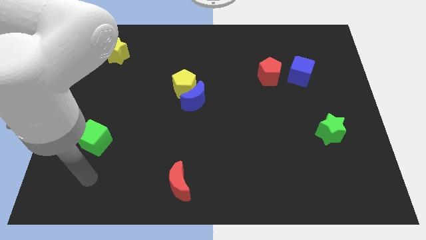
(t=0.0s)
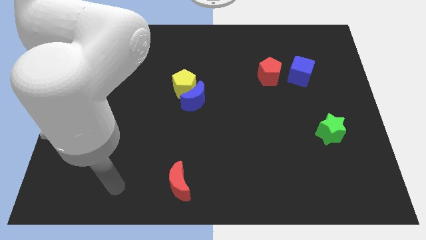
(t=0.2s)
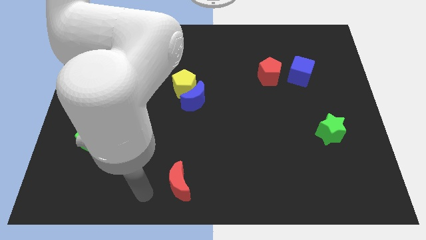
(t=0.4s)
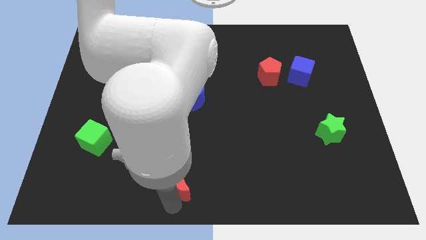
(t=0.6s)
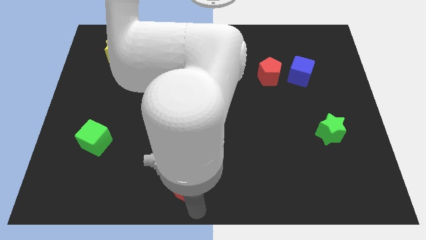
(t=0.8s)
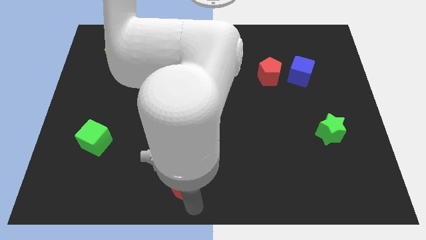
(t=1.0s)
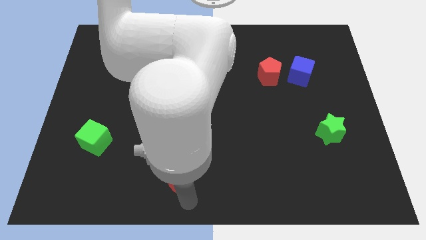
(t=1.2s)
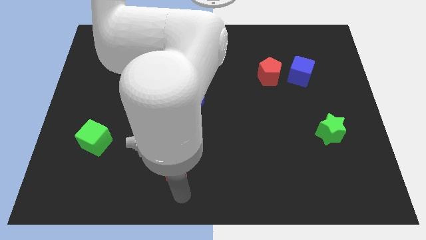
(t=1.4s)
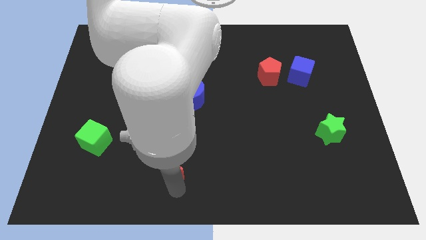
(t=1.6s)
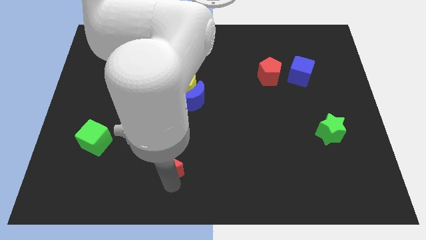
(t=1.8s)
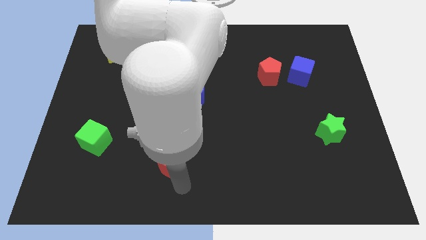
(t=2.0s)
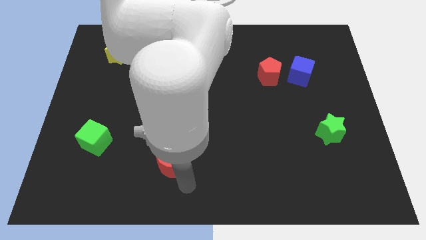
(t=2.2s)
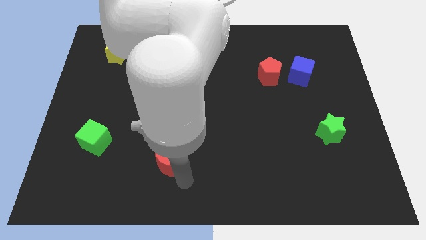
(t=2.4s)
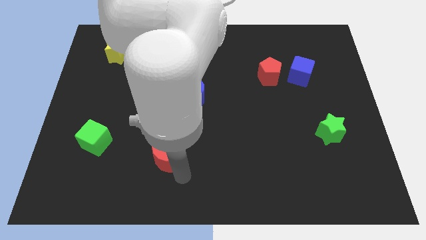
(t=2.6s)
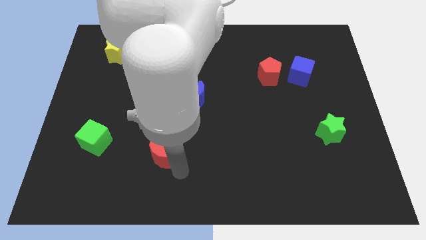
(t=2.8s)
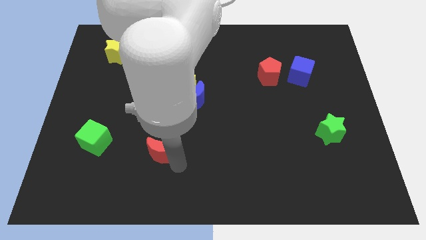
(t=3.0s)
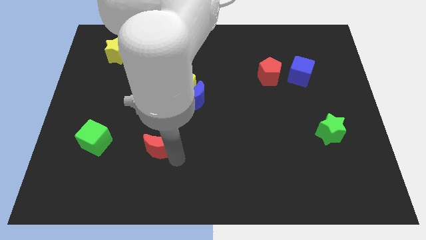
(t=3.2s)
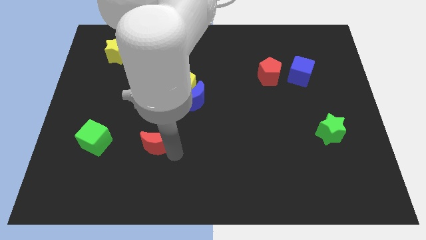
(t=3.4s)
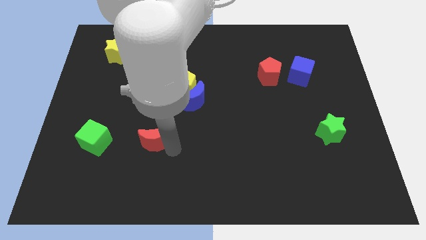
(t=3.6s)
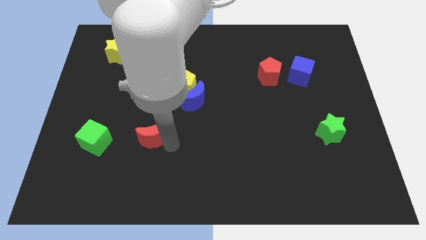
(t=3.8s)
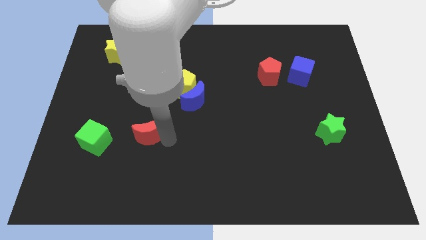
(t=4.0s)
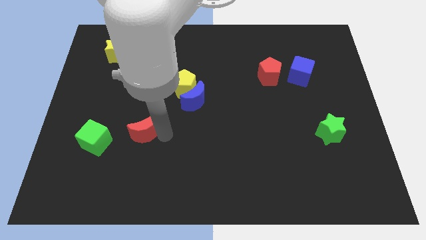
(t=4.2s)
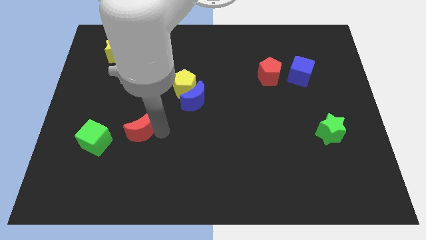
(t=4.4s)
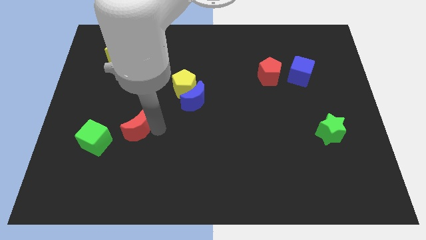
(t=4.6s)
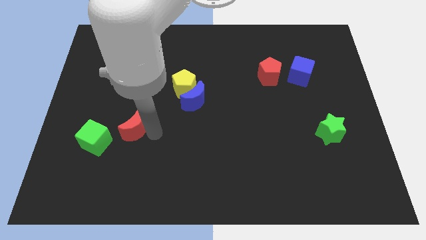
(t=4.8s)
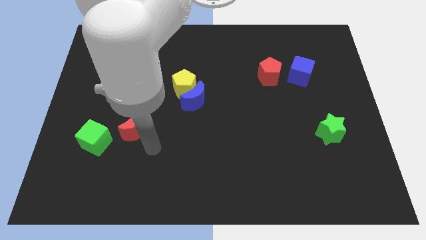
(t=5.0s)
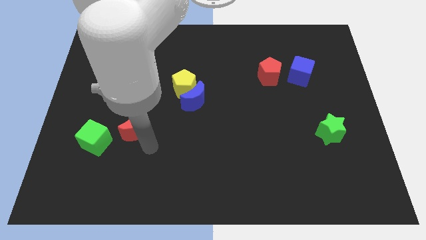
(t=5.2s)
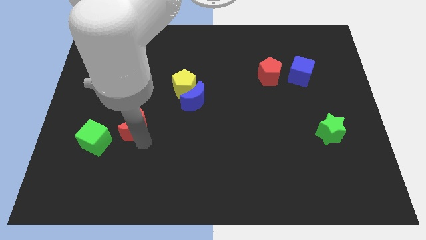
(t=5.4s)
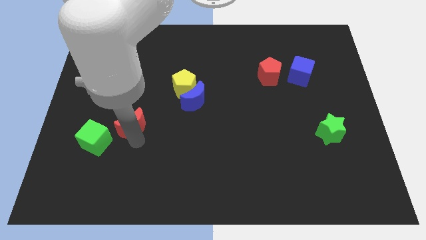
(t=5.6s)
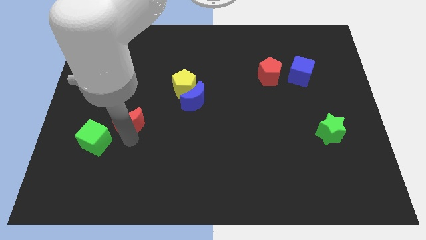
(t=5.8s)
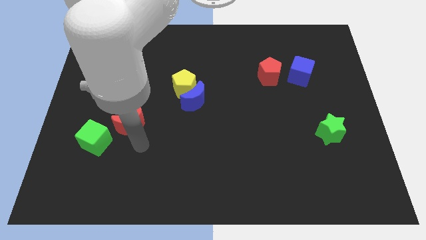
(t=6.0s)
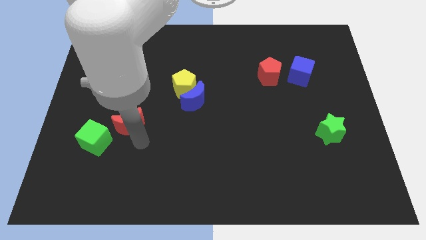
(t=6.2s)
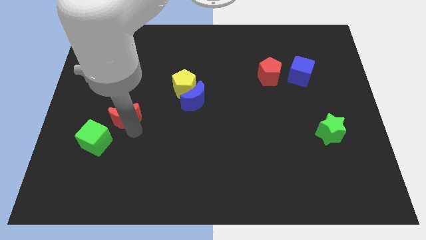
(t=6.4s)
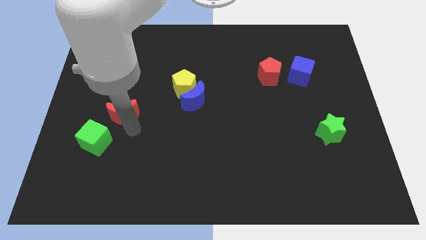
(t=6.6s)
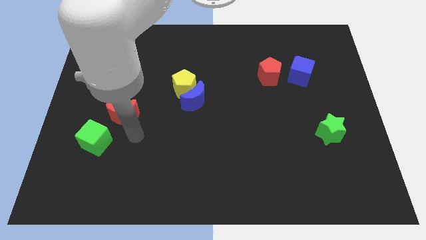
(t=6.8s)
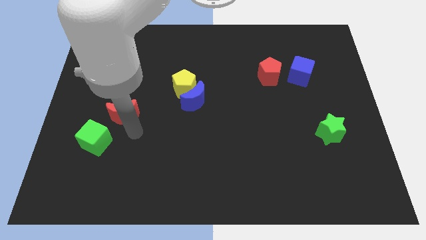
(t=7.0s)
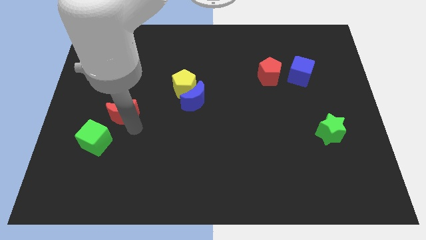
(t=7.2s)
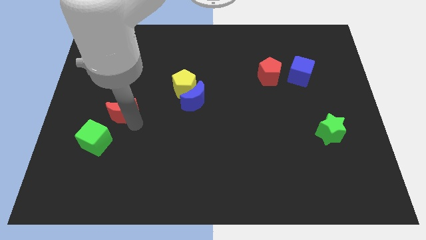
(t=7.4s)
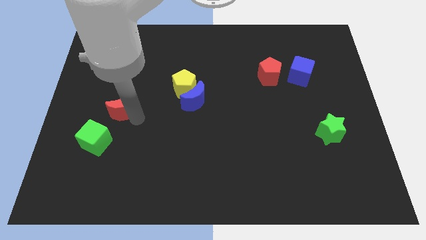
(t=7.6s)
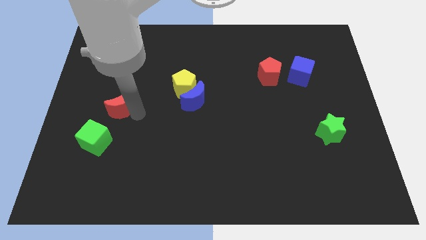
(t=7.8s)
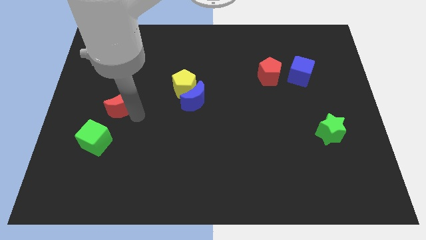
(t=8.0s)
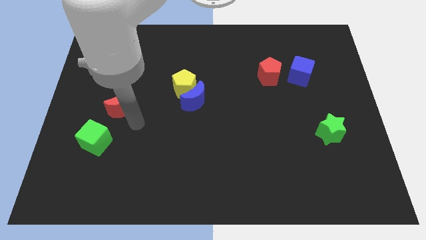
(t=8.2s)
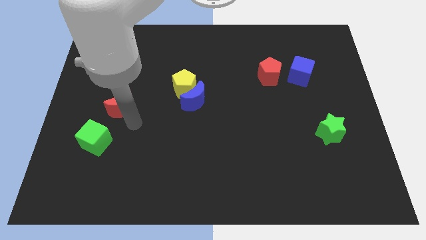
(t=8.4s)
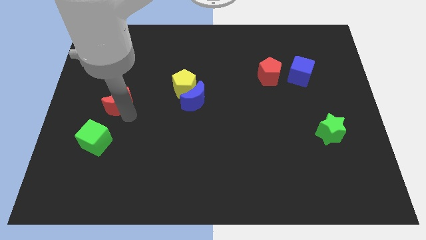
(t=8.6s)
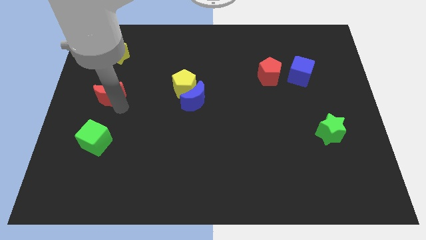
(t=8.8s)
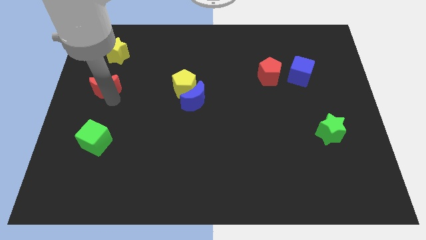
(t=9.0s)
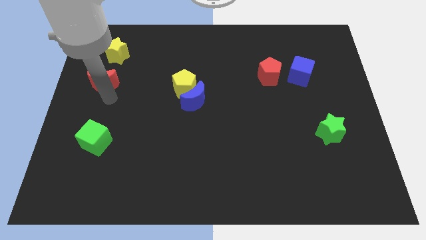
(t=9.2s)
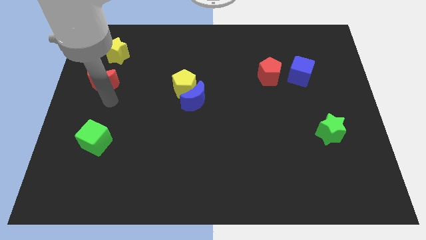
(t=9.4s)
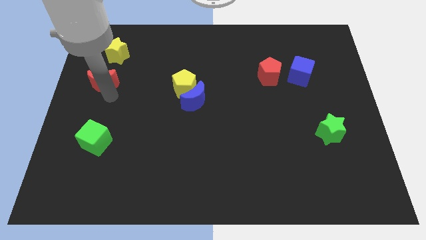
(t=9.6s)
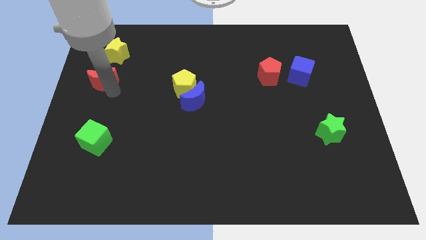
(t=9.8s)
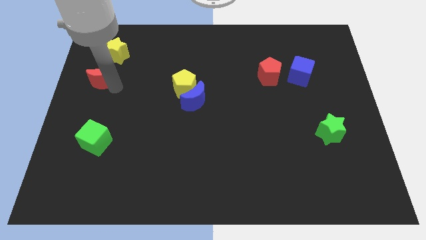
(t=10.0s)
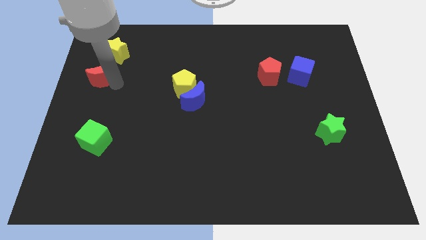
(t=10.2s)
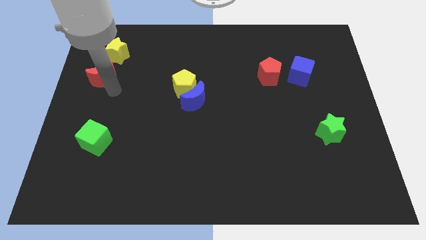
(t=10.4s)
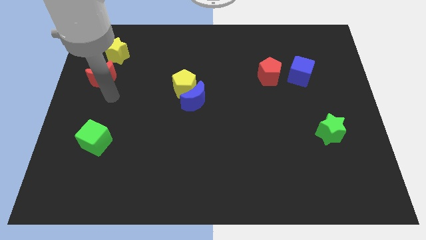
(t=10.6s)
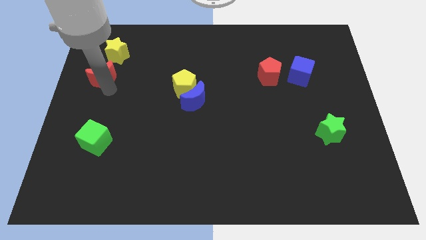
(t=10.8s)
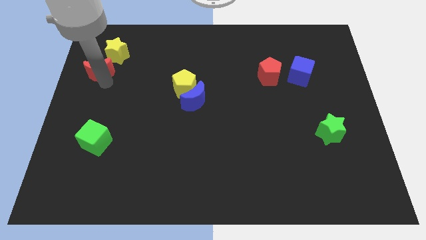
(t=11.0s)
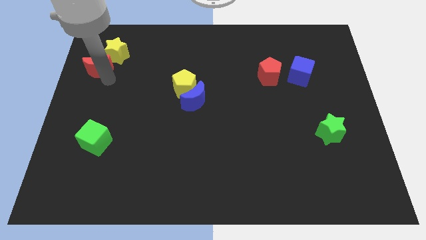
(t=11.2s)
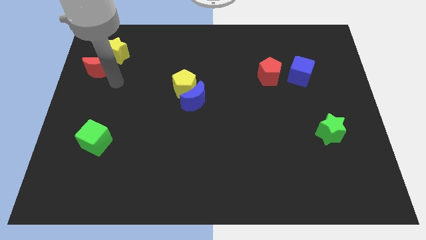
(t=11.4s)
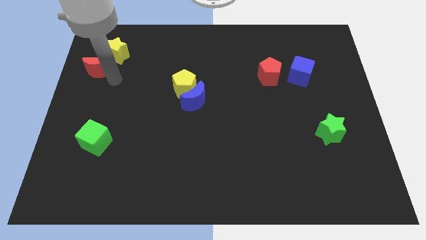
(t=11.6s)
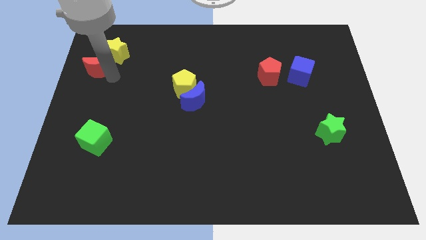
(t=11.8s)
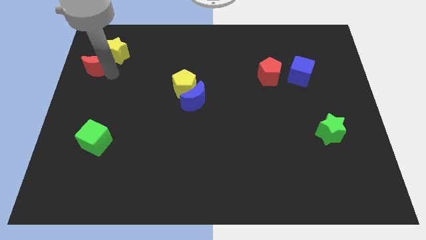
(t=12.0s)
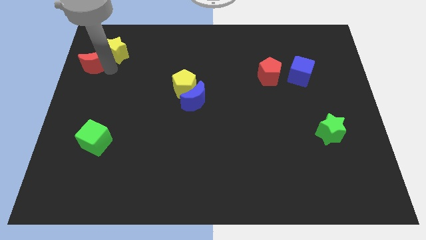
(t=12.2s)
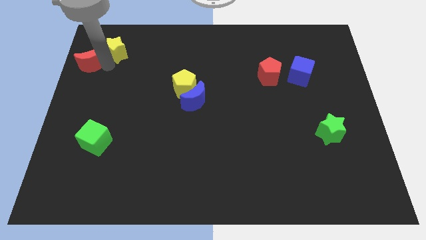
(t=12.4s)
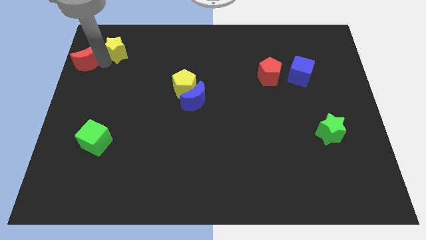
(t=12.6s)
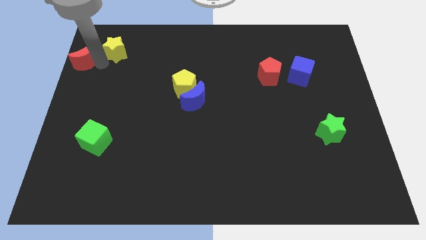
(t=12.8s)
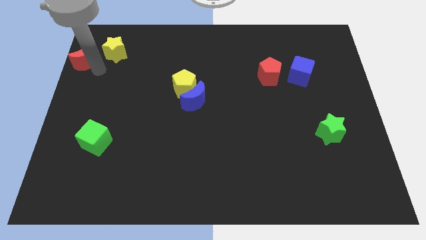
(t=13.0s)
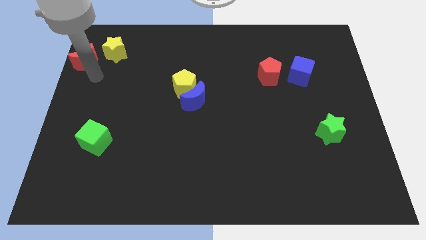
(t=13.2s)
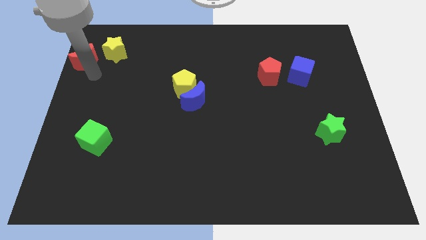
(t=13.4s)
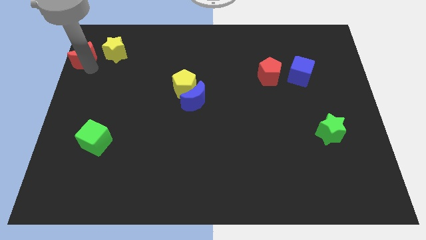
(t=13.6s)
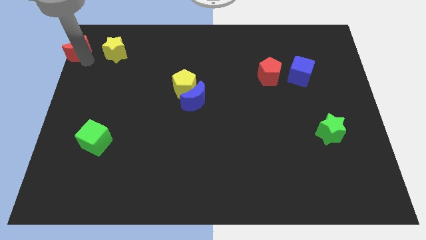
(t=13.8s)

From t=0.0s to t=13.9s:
put the red moon to the top left of the board
